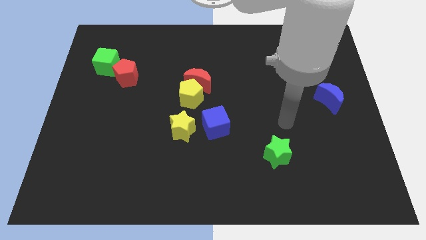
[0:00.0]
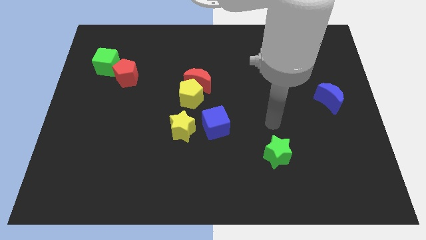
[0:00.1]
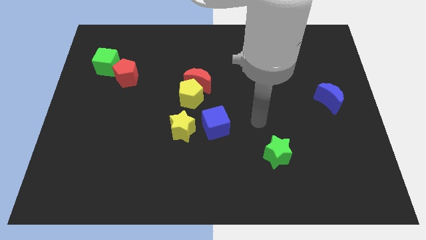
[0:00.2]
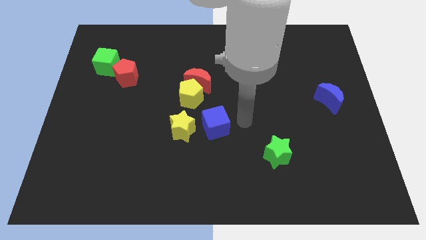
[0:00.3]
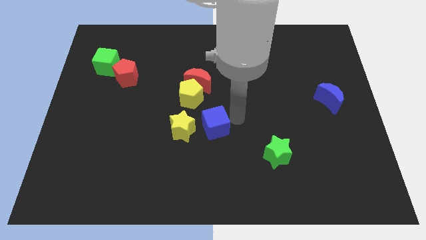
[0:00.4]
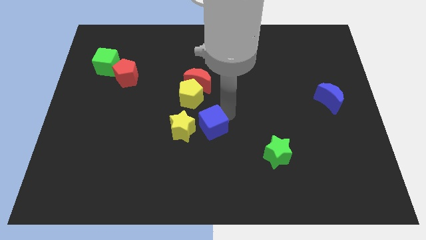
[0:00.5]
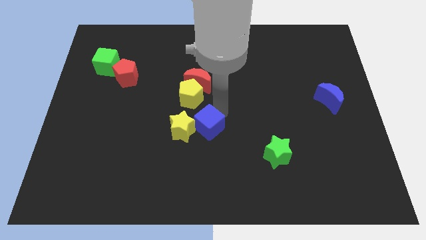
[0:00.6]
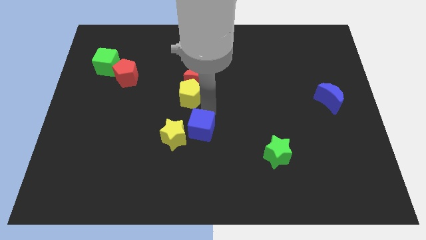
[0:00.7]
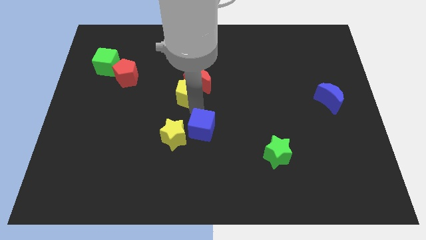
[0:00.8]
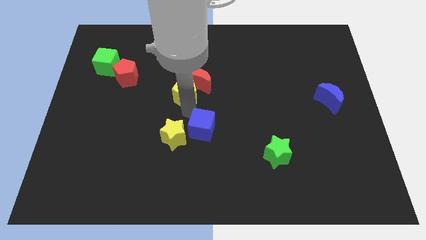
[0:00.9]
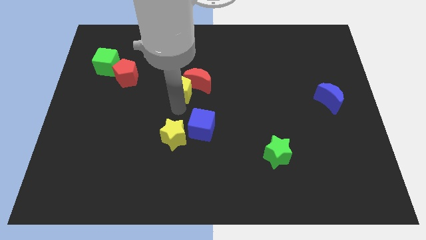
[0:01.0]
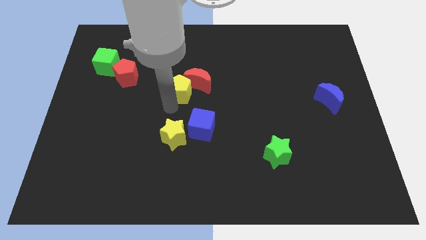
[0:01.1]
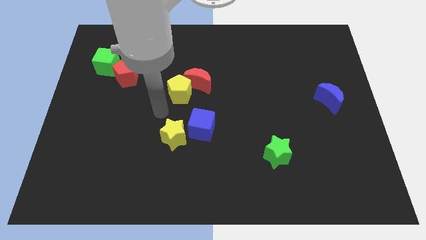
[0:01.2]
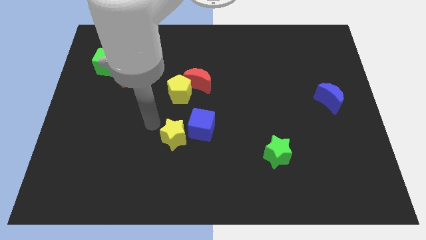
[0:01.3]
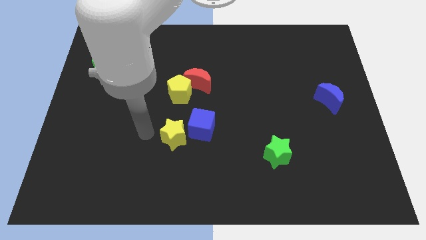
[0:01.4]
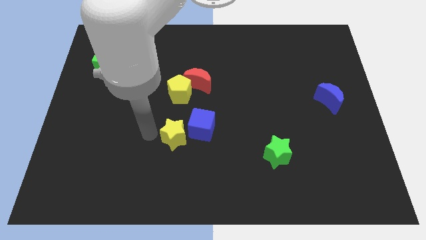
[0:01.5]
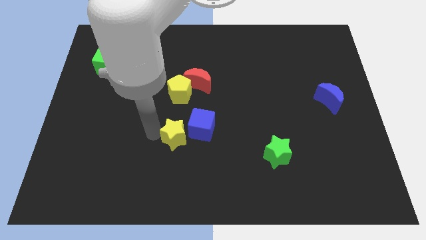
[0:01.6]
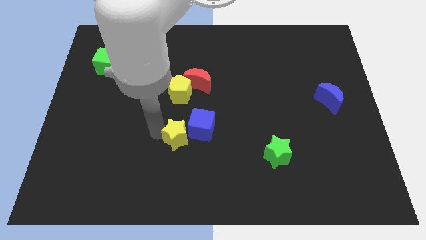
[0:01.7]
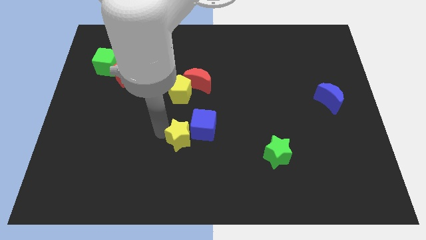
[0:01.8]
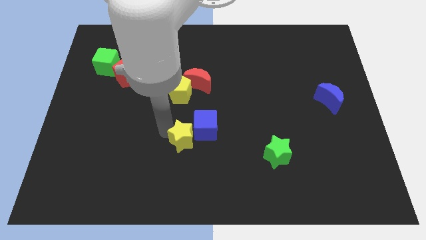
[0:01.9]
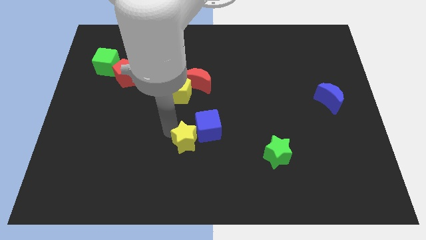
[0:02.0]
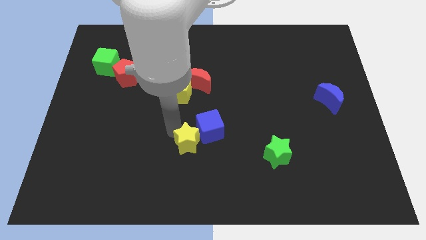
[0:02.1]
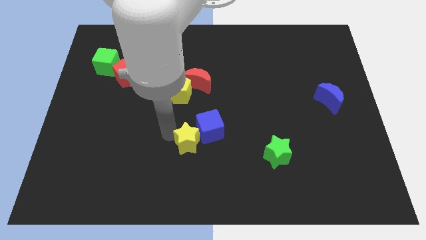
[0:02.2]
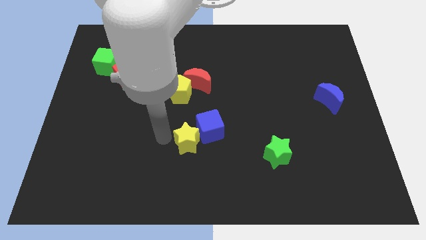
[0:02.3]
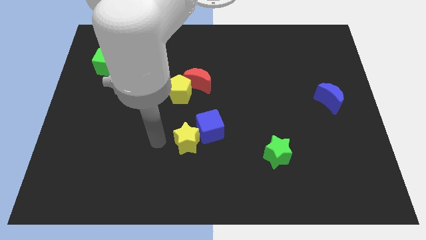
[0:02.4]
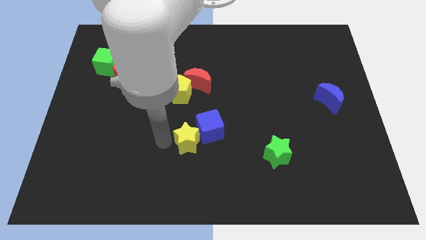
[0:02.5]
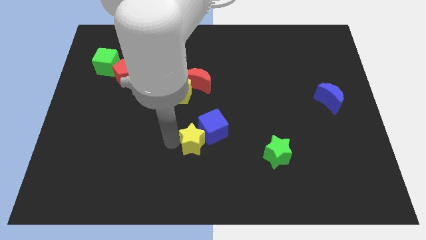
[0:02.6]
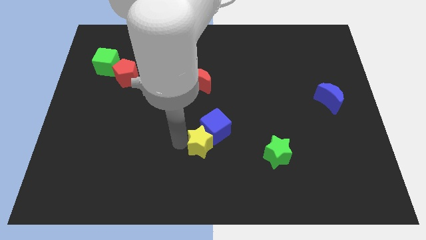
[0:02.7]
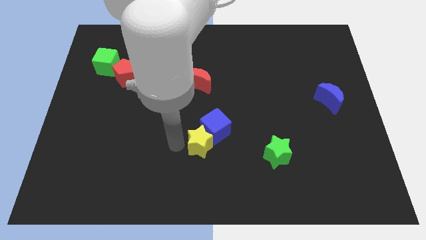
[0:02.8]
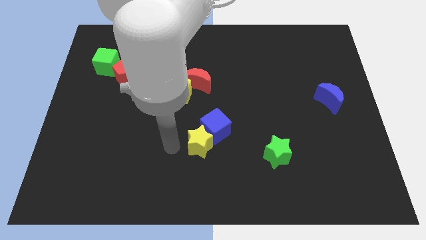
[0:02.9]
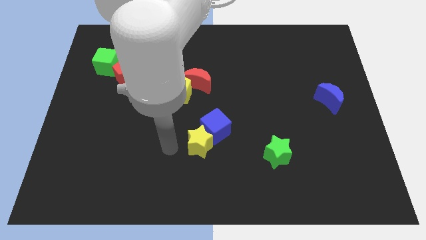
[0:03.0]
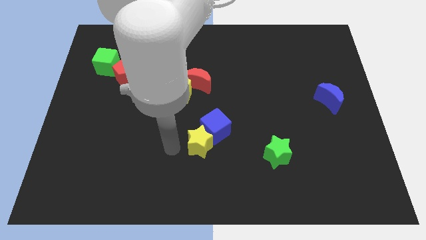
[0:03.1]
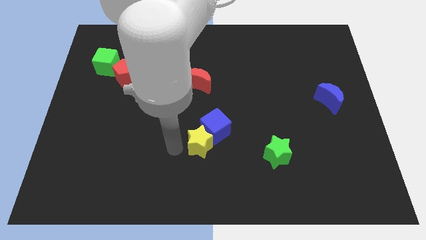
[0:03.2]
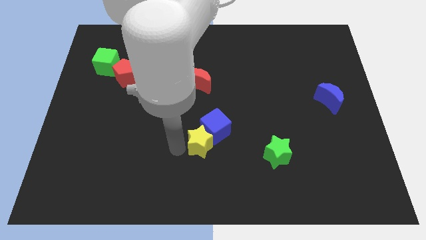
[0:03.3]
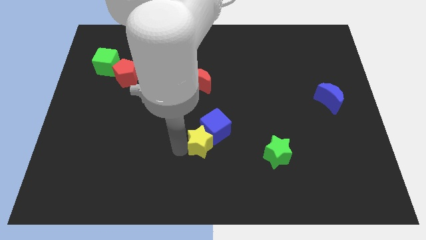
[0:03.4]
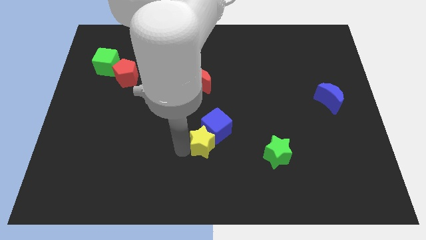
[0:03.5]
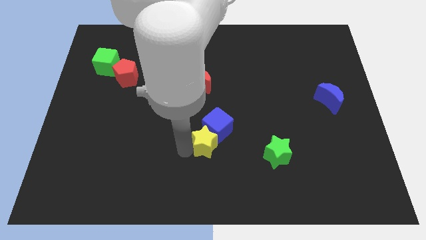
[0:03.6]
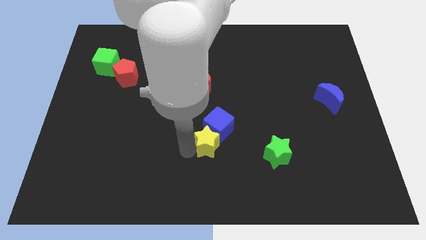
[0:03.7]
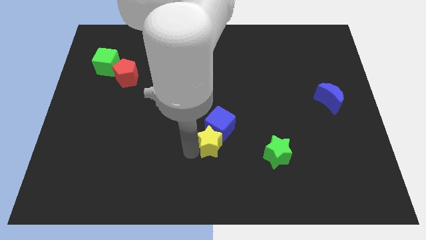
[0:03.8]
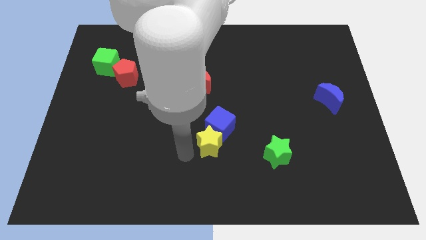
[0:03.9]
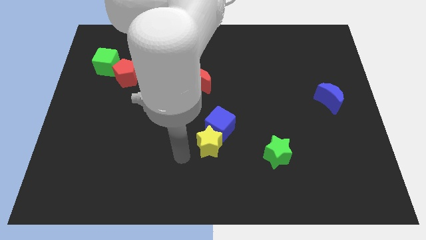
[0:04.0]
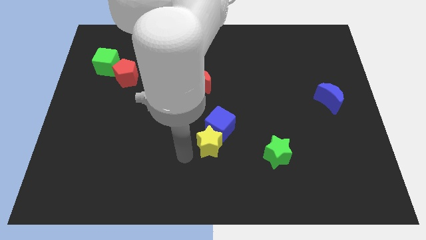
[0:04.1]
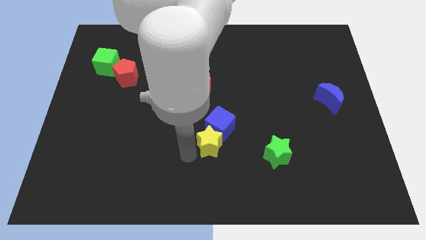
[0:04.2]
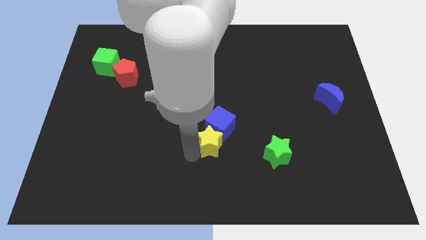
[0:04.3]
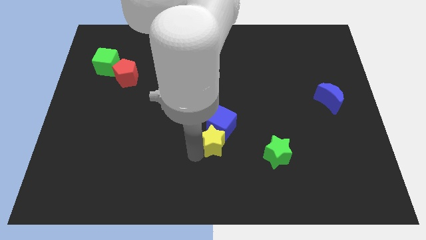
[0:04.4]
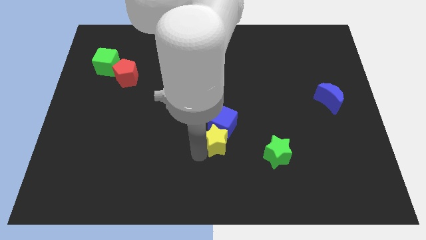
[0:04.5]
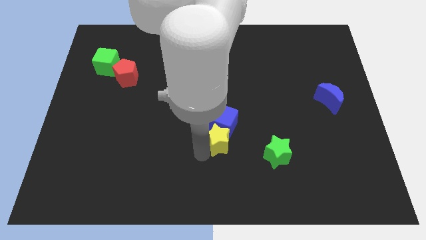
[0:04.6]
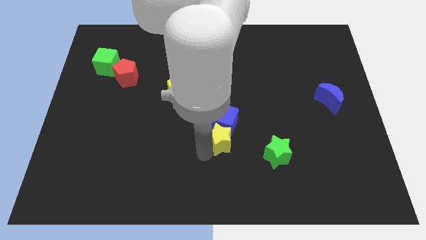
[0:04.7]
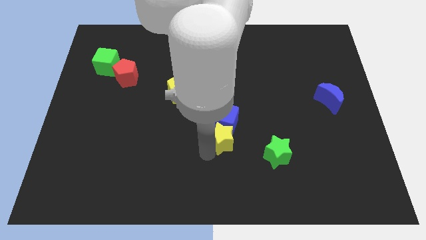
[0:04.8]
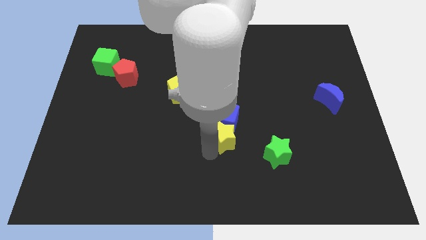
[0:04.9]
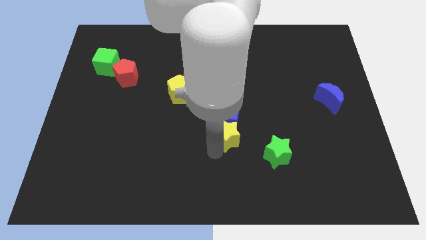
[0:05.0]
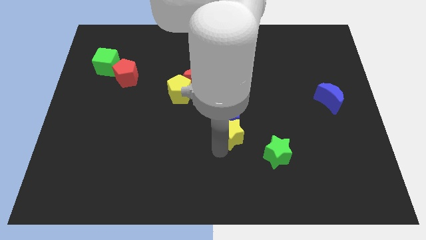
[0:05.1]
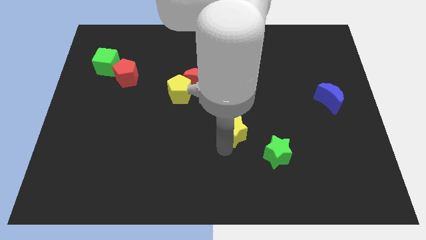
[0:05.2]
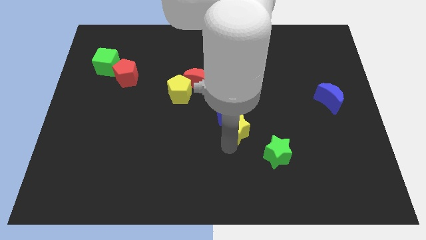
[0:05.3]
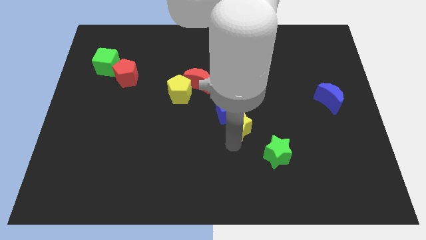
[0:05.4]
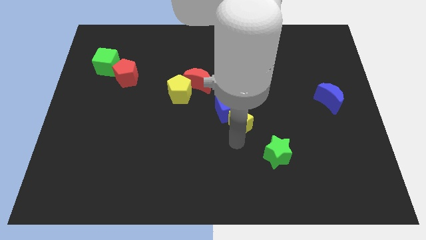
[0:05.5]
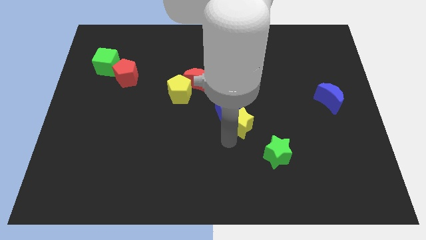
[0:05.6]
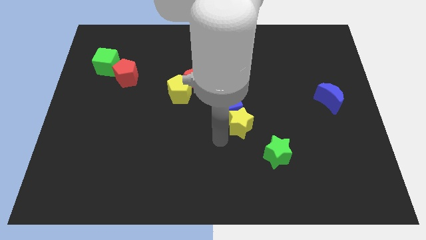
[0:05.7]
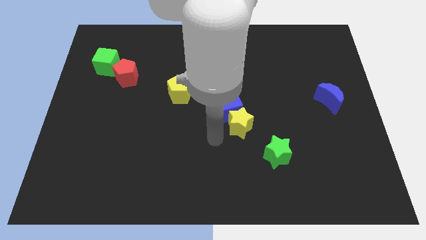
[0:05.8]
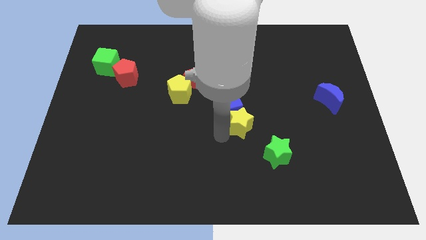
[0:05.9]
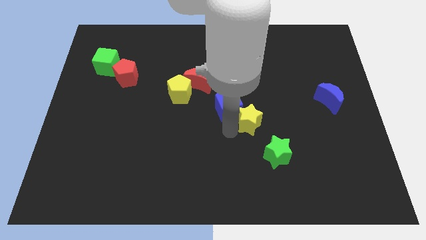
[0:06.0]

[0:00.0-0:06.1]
slide the yellow star right of the blue cube
